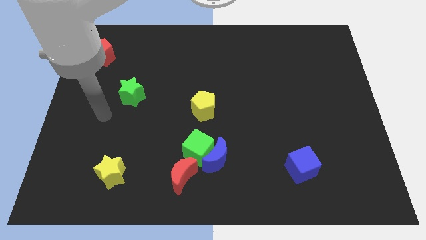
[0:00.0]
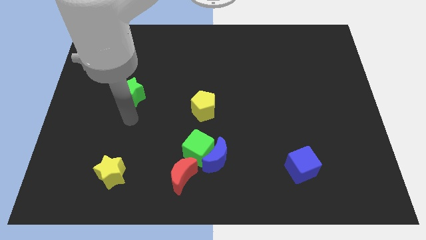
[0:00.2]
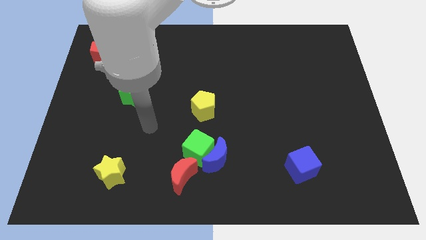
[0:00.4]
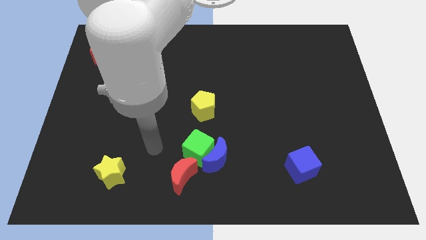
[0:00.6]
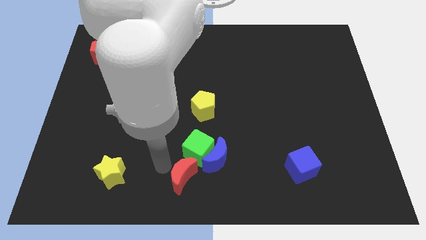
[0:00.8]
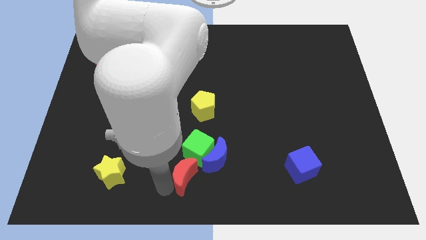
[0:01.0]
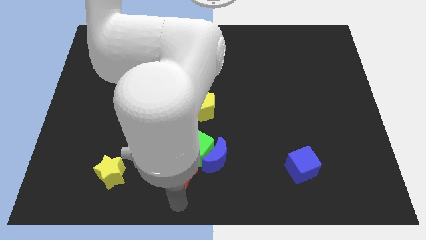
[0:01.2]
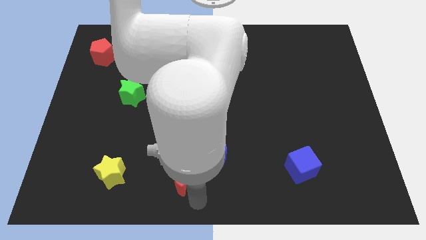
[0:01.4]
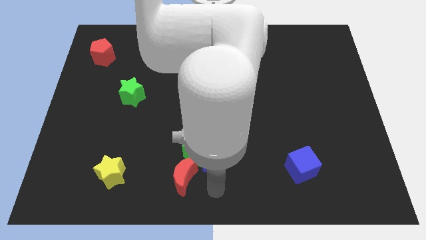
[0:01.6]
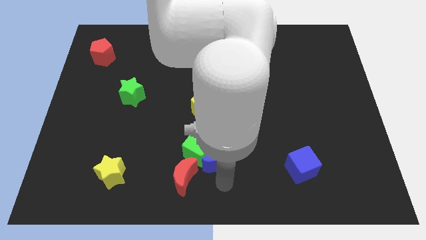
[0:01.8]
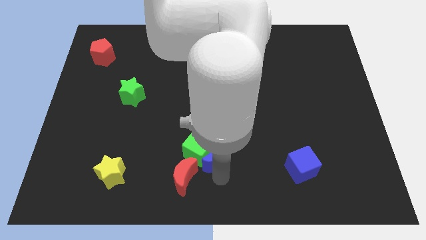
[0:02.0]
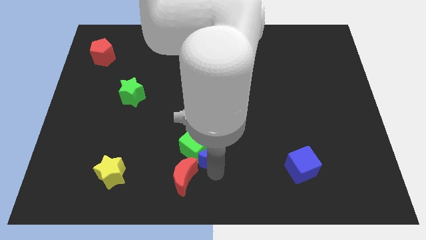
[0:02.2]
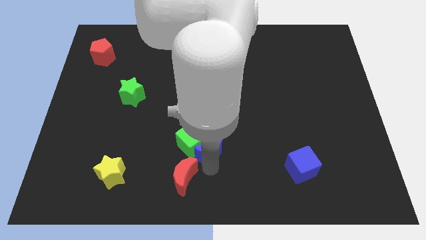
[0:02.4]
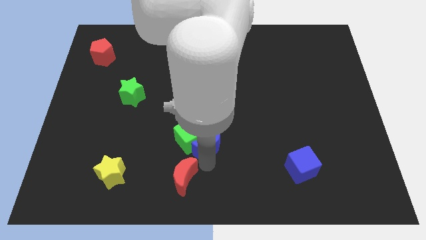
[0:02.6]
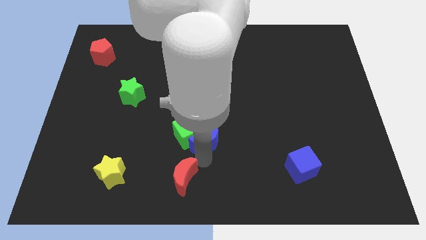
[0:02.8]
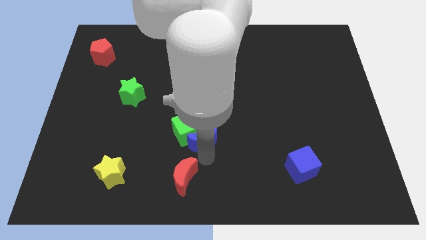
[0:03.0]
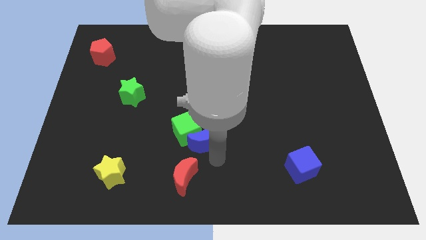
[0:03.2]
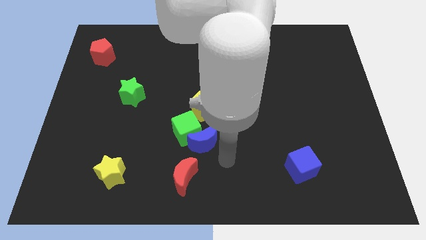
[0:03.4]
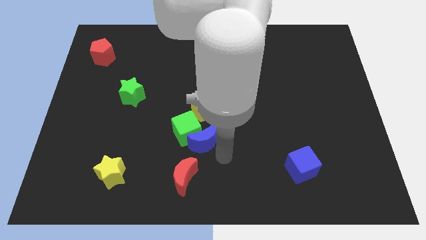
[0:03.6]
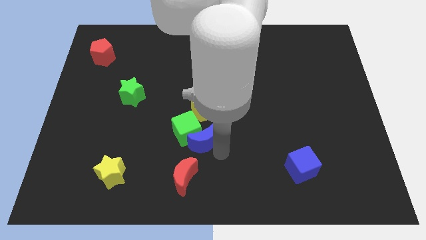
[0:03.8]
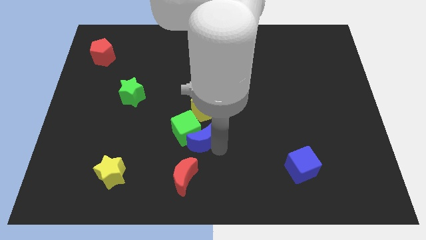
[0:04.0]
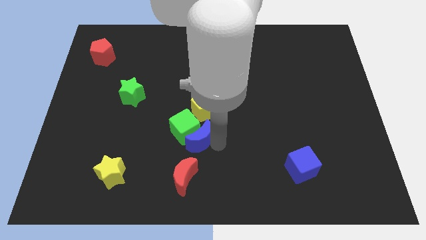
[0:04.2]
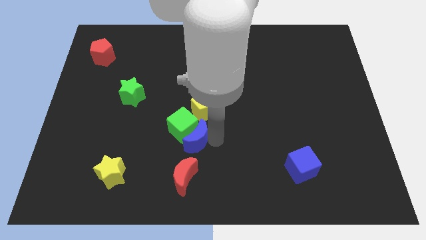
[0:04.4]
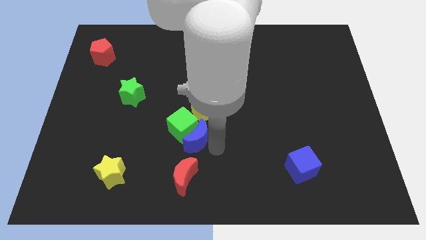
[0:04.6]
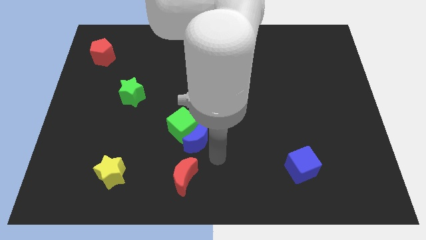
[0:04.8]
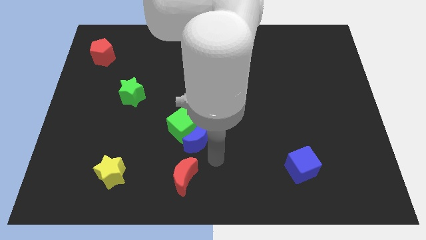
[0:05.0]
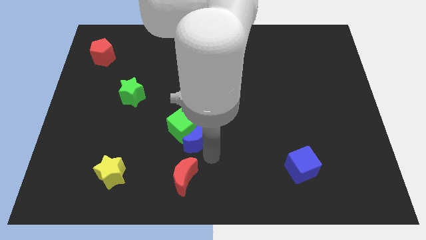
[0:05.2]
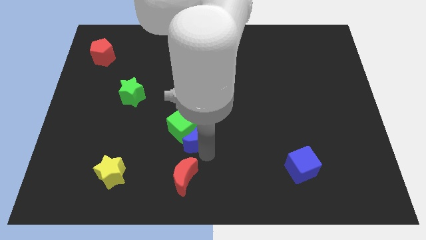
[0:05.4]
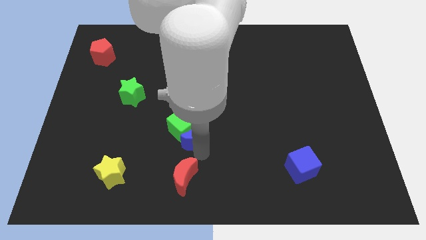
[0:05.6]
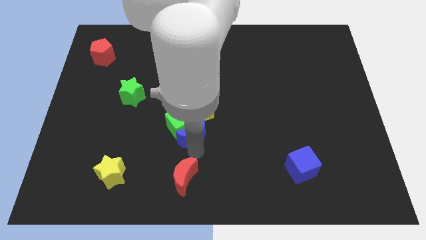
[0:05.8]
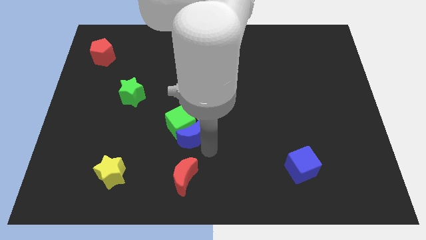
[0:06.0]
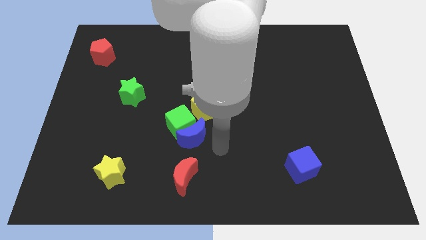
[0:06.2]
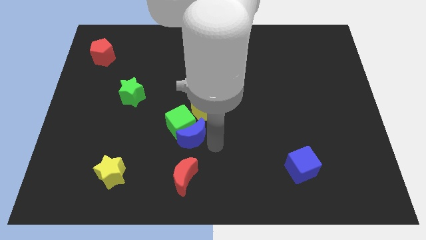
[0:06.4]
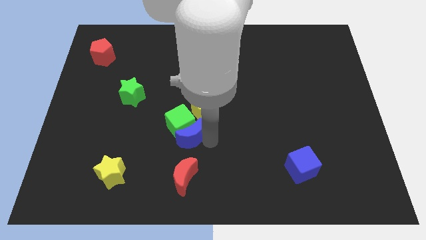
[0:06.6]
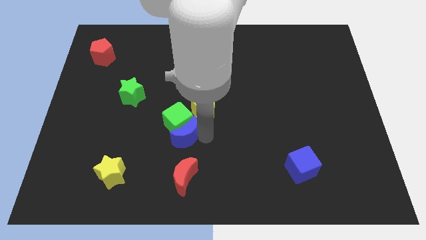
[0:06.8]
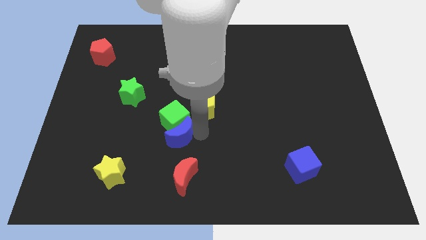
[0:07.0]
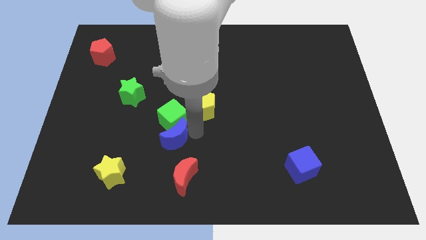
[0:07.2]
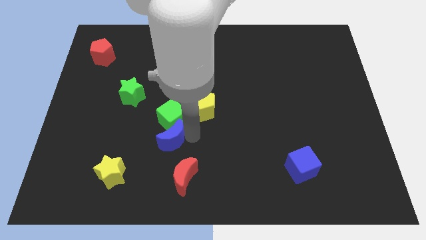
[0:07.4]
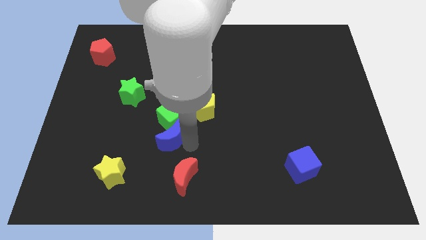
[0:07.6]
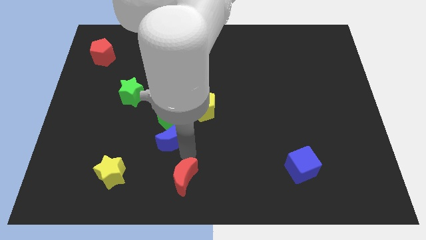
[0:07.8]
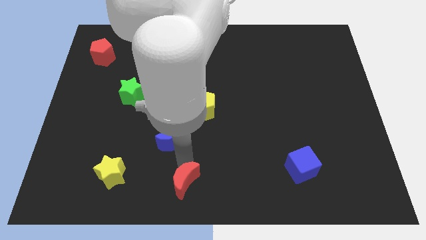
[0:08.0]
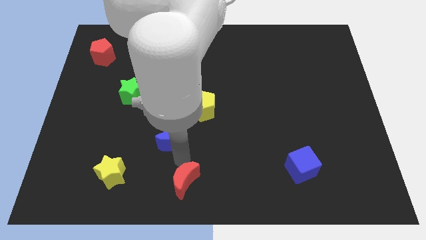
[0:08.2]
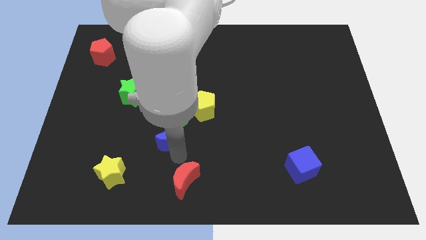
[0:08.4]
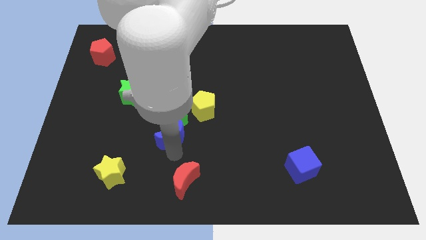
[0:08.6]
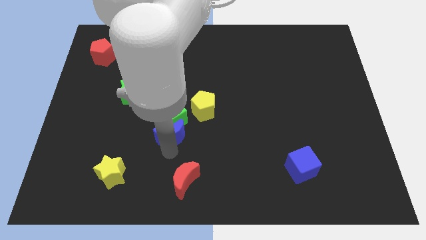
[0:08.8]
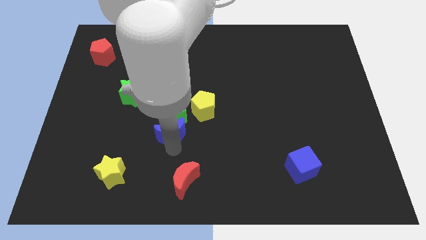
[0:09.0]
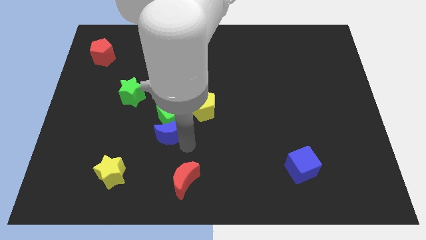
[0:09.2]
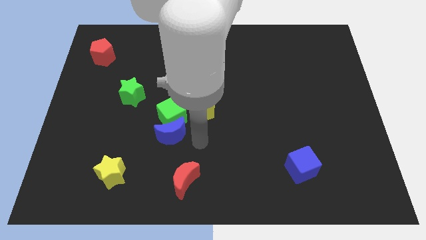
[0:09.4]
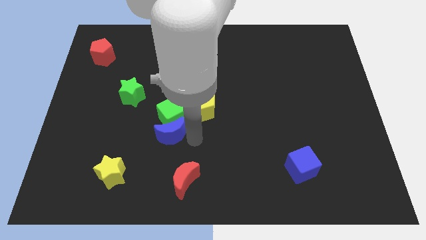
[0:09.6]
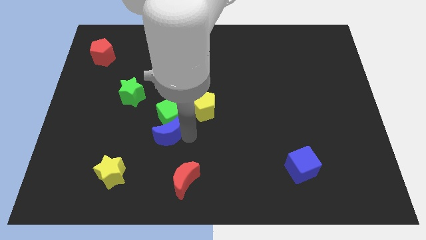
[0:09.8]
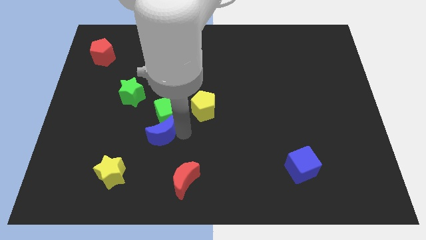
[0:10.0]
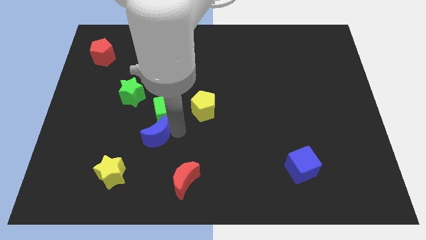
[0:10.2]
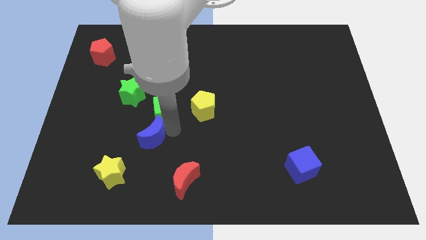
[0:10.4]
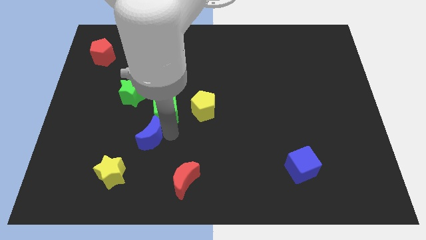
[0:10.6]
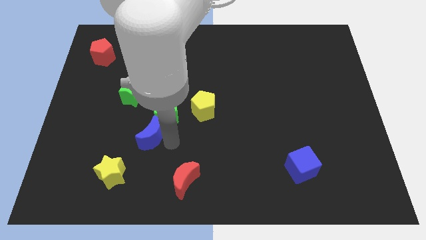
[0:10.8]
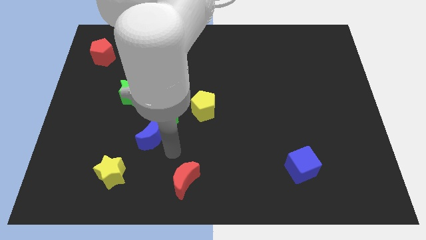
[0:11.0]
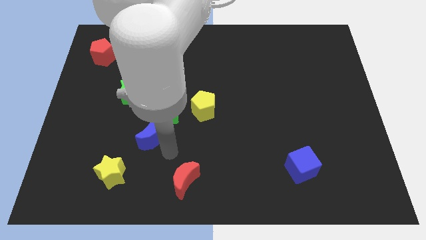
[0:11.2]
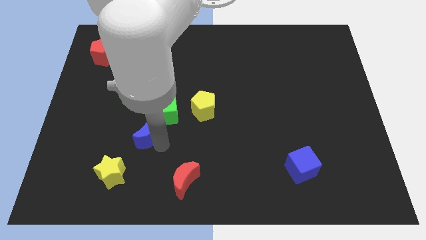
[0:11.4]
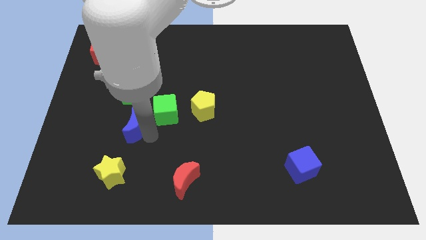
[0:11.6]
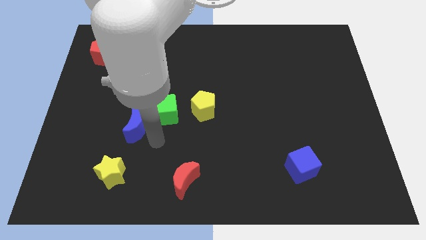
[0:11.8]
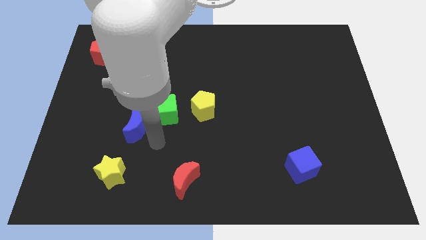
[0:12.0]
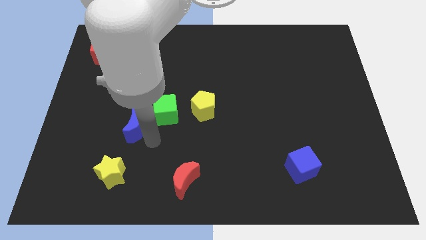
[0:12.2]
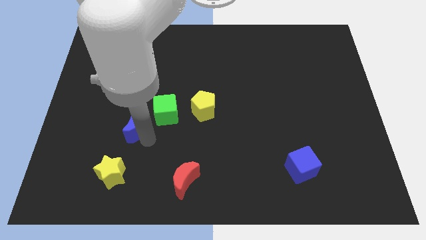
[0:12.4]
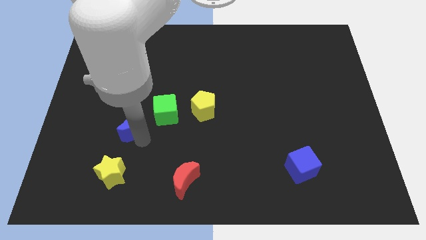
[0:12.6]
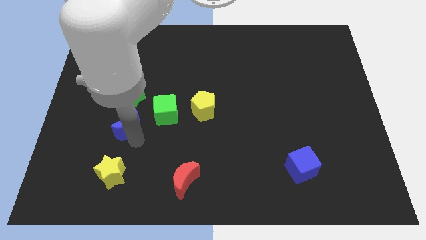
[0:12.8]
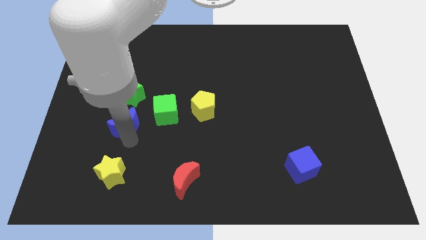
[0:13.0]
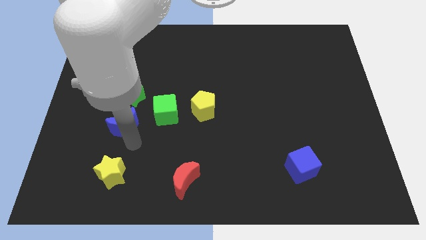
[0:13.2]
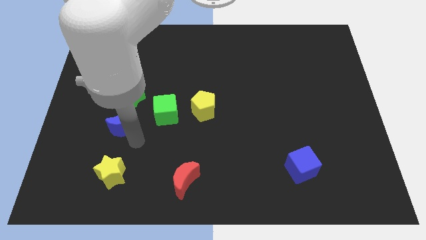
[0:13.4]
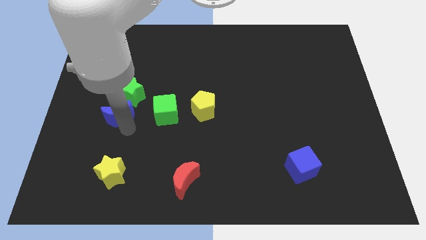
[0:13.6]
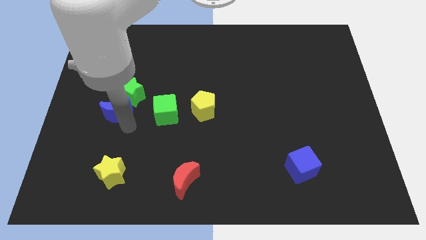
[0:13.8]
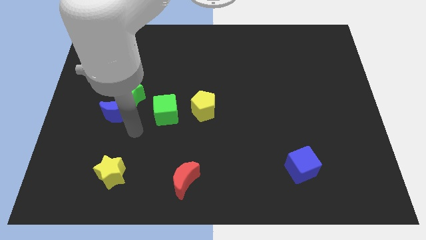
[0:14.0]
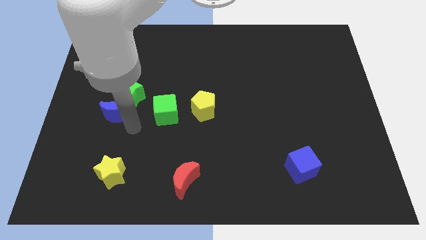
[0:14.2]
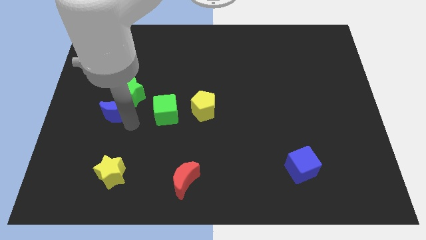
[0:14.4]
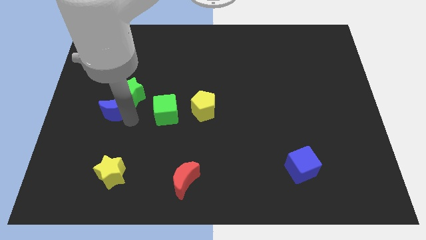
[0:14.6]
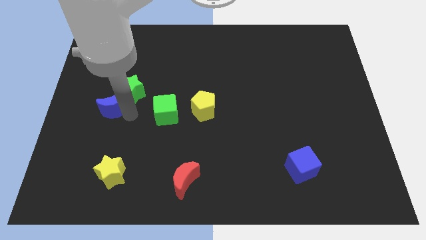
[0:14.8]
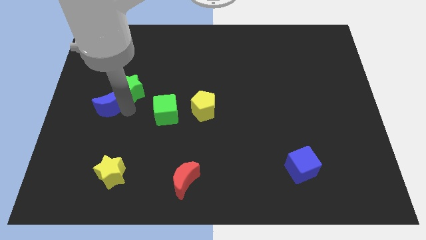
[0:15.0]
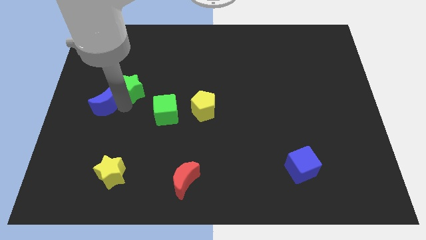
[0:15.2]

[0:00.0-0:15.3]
push the blue moon to the center left
